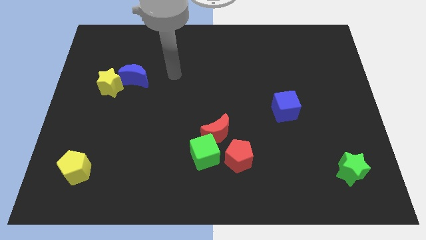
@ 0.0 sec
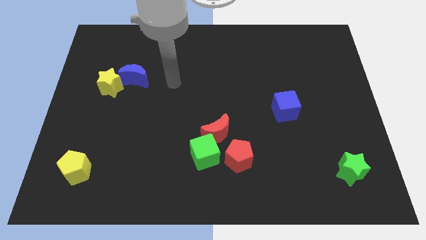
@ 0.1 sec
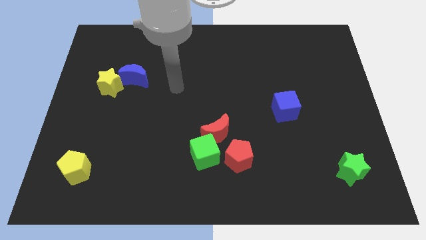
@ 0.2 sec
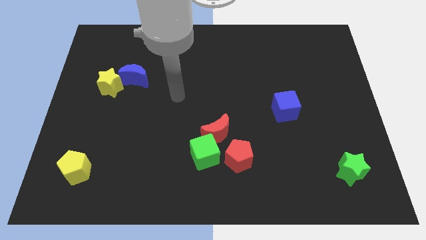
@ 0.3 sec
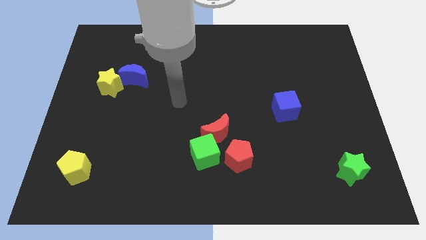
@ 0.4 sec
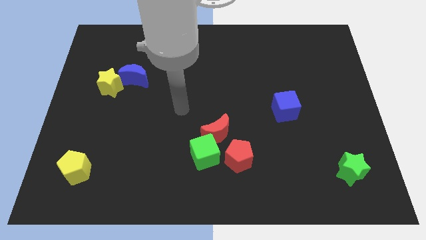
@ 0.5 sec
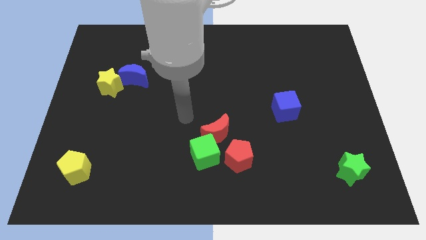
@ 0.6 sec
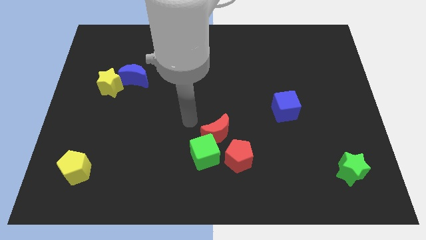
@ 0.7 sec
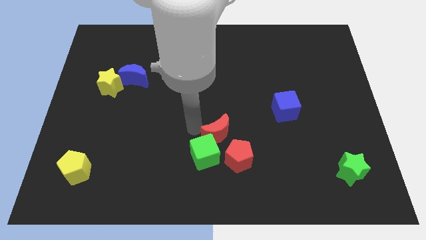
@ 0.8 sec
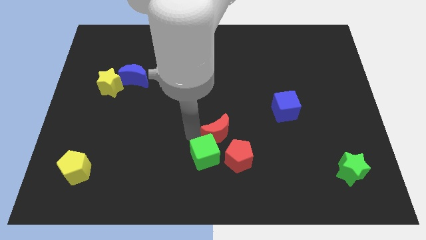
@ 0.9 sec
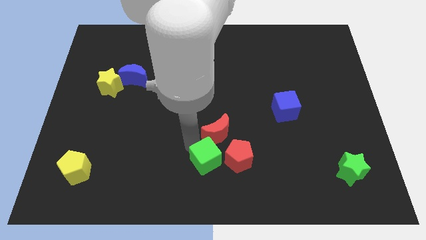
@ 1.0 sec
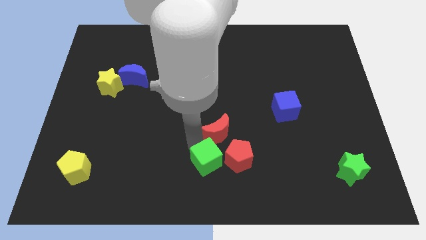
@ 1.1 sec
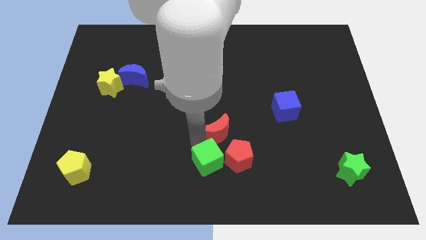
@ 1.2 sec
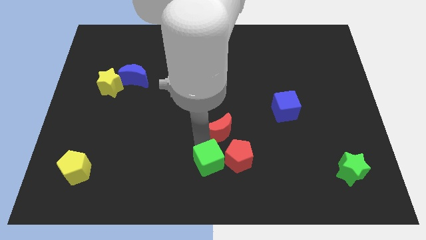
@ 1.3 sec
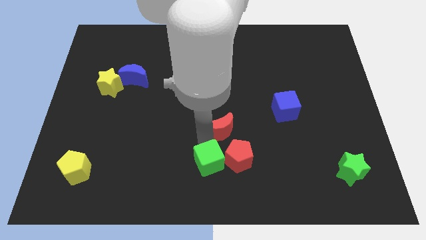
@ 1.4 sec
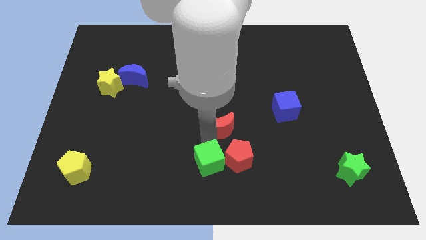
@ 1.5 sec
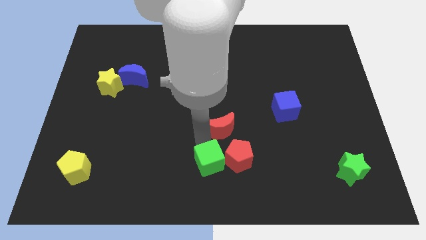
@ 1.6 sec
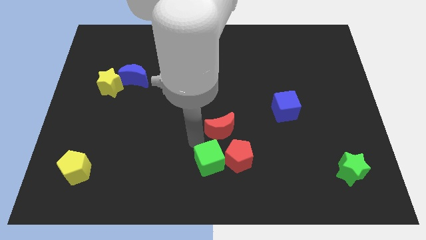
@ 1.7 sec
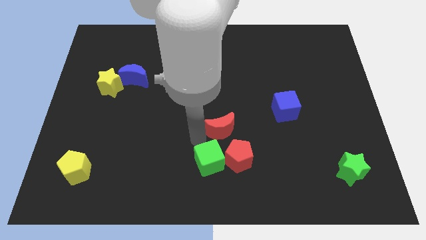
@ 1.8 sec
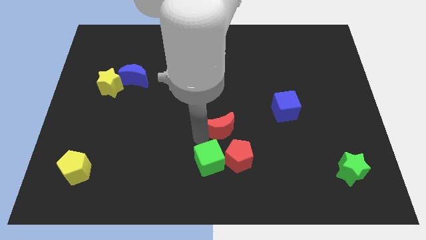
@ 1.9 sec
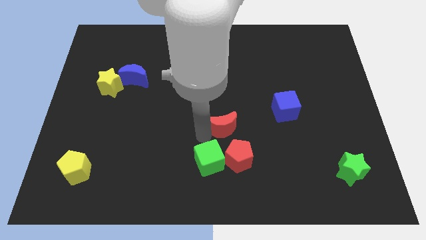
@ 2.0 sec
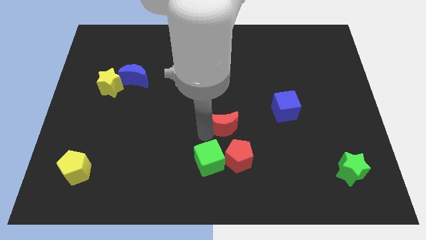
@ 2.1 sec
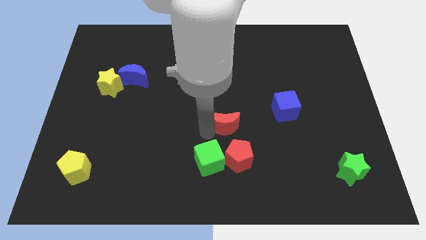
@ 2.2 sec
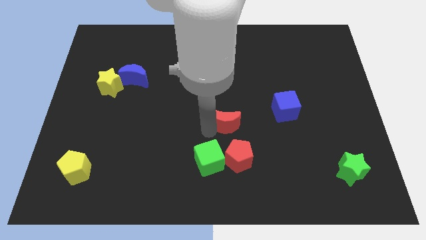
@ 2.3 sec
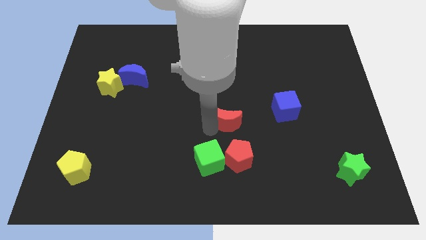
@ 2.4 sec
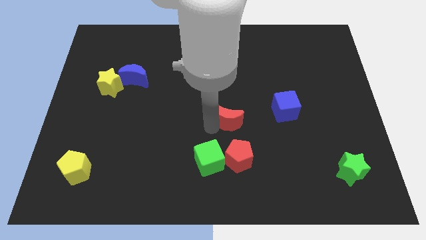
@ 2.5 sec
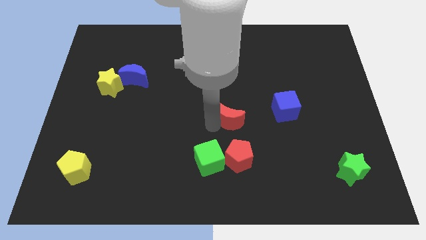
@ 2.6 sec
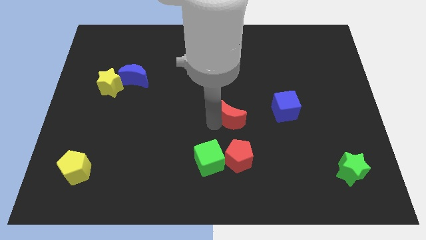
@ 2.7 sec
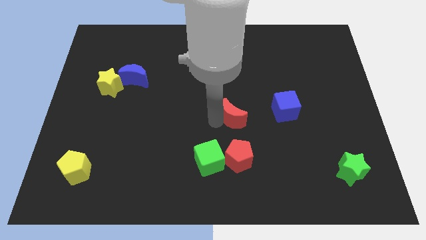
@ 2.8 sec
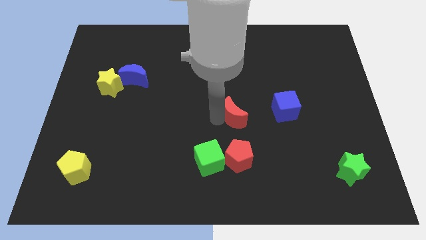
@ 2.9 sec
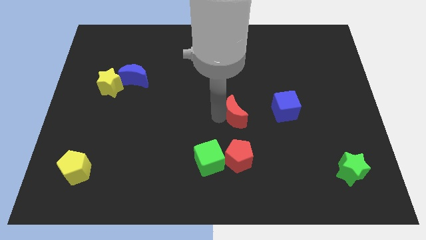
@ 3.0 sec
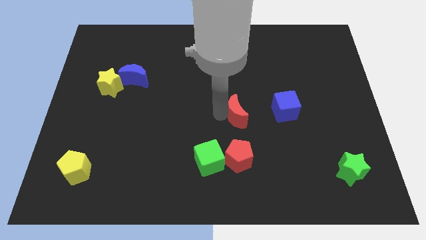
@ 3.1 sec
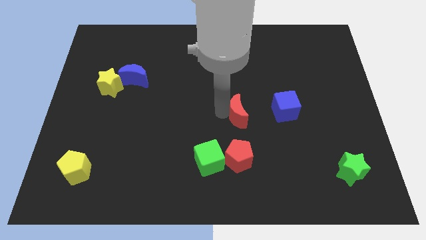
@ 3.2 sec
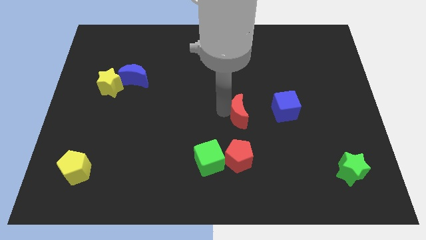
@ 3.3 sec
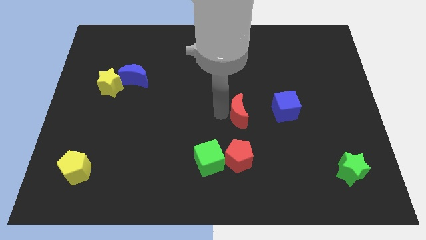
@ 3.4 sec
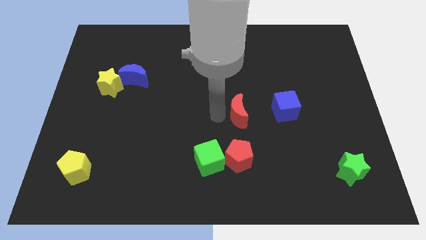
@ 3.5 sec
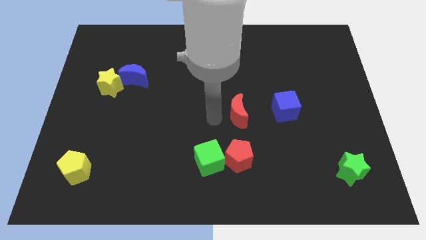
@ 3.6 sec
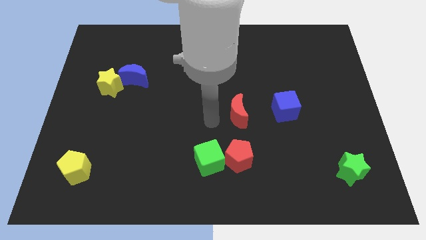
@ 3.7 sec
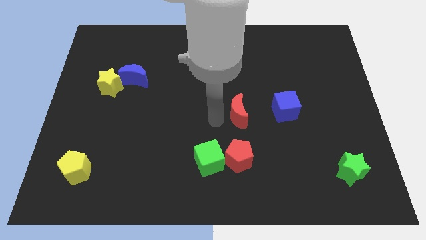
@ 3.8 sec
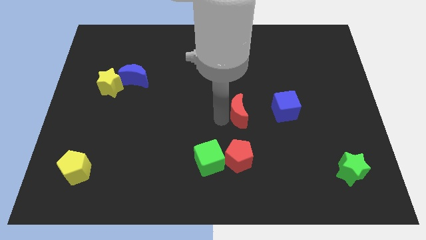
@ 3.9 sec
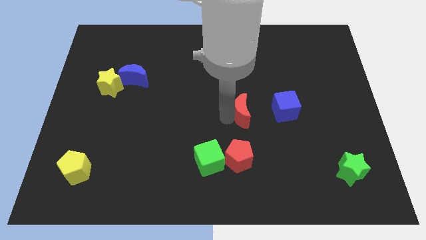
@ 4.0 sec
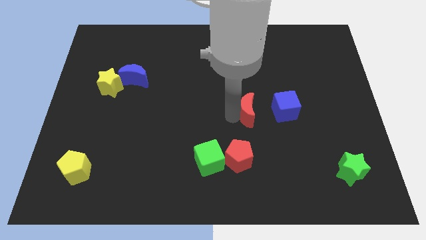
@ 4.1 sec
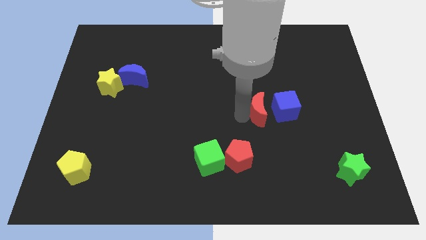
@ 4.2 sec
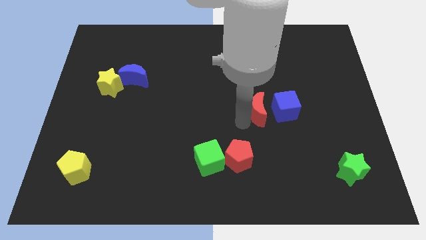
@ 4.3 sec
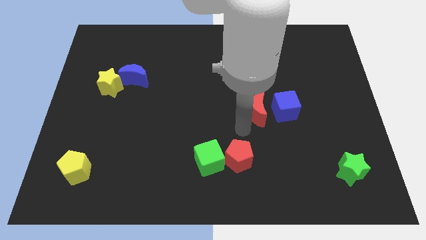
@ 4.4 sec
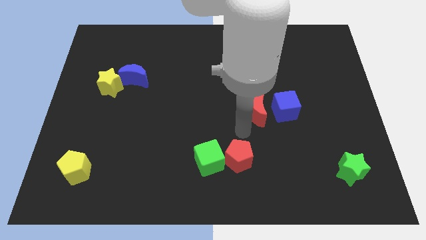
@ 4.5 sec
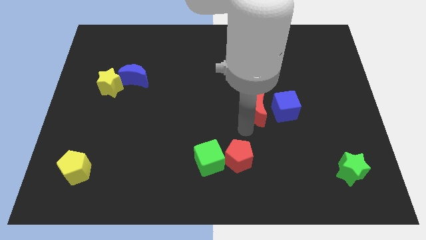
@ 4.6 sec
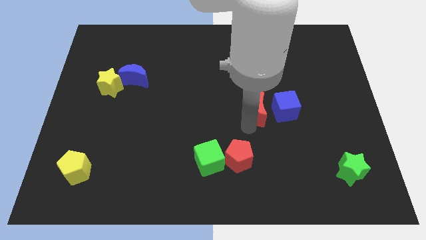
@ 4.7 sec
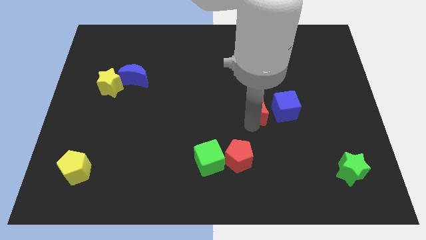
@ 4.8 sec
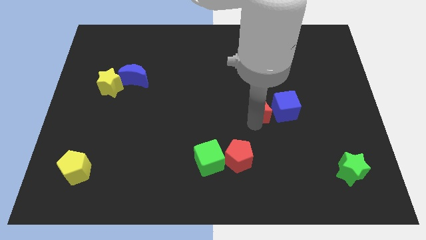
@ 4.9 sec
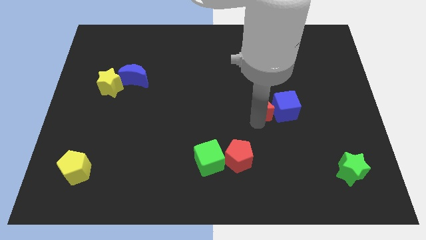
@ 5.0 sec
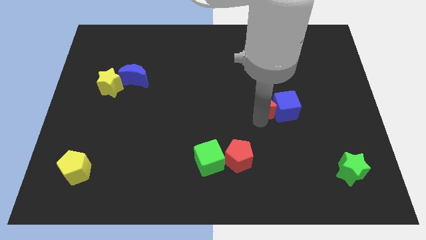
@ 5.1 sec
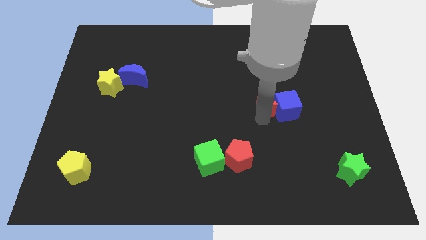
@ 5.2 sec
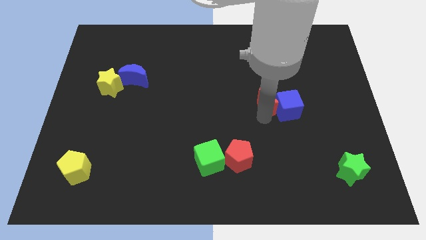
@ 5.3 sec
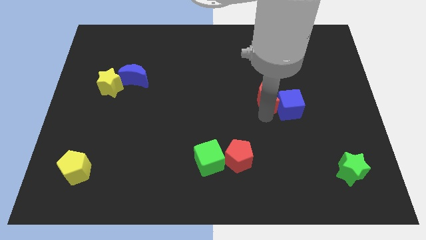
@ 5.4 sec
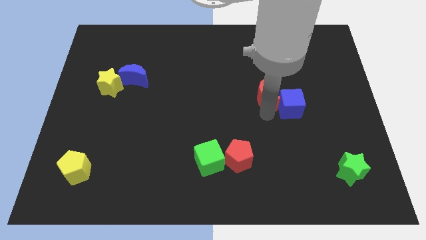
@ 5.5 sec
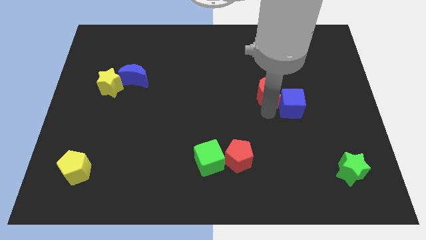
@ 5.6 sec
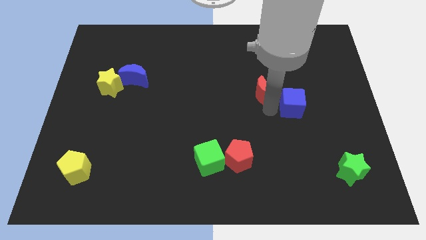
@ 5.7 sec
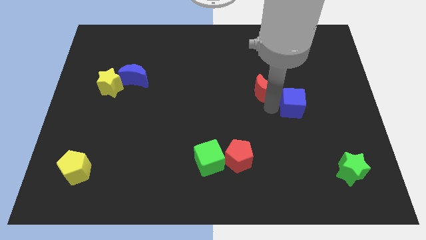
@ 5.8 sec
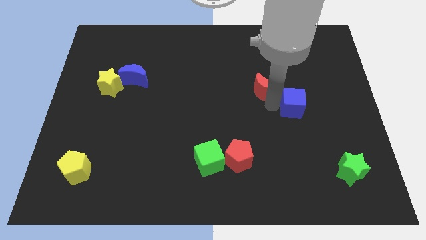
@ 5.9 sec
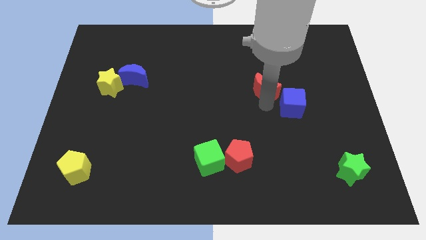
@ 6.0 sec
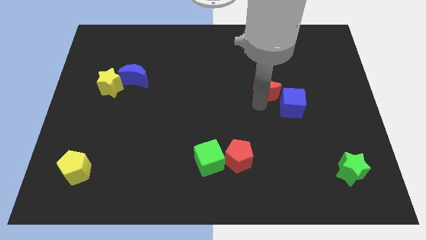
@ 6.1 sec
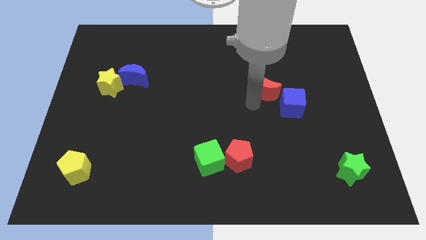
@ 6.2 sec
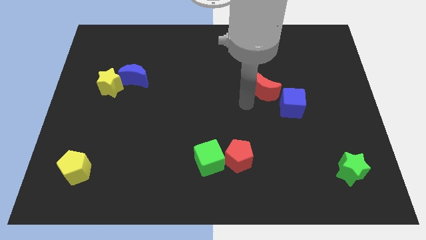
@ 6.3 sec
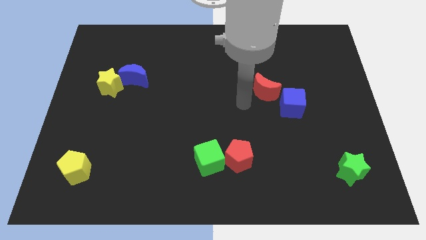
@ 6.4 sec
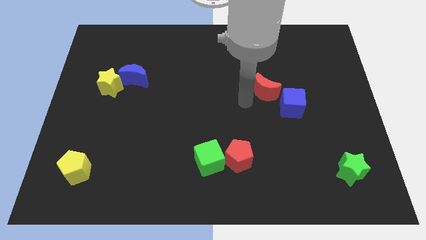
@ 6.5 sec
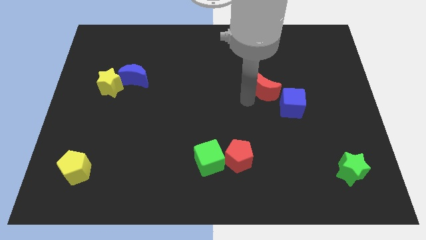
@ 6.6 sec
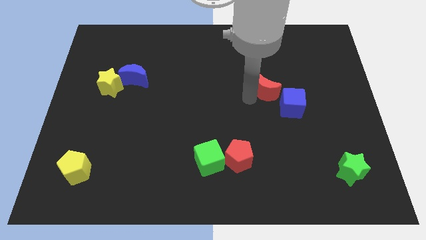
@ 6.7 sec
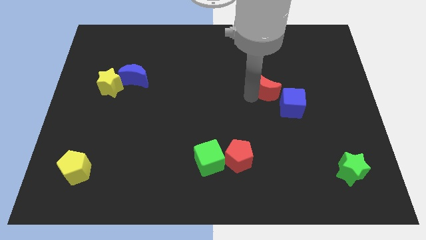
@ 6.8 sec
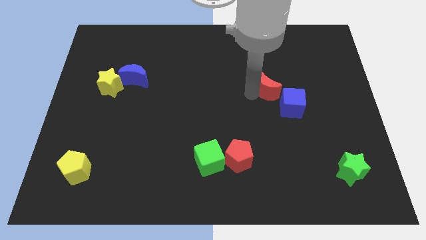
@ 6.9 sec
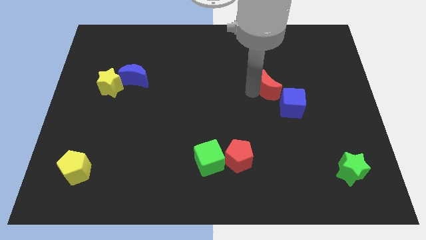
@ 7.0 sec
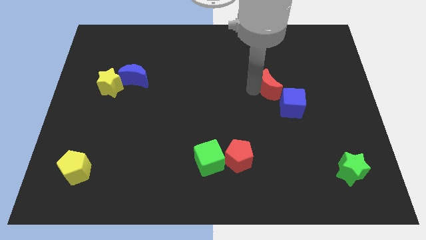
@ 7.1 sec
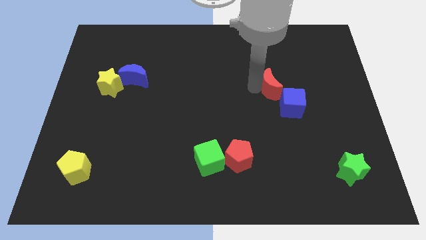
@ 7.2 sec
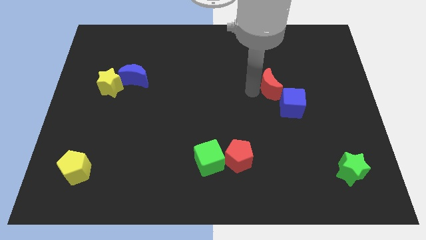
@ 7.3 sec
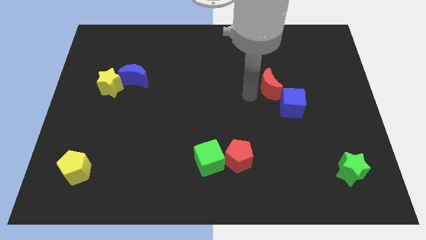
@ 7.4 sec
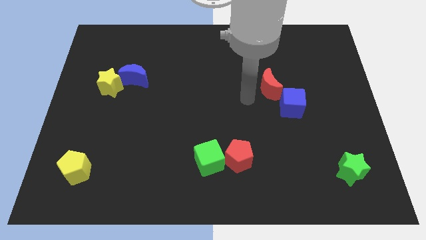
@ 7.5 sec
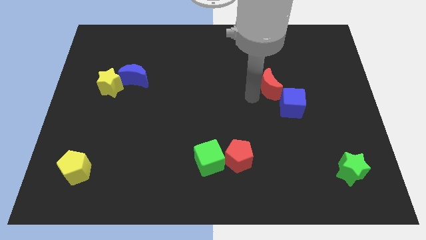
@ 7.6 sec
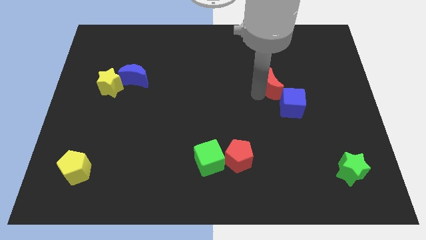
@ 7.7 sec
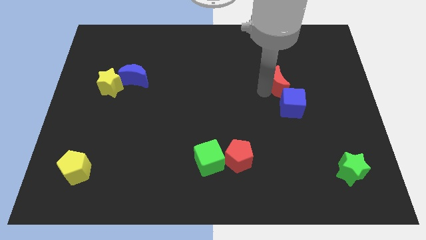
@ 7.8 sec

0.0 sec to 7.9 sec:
move the red moon up and then right
